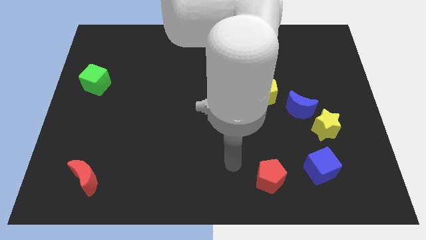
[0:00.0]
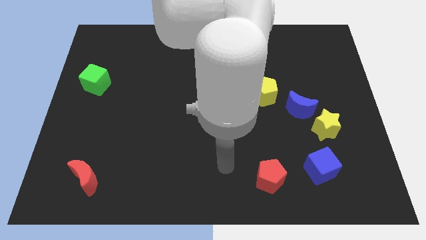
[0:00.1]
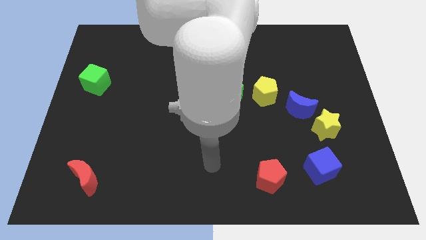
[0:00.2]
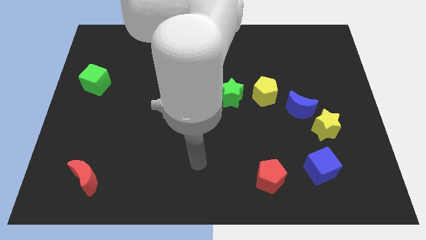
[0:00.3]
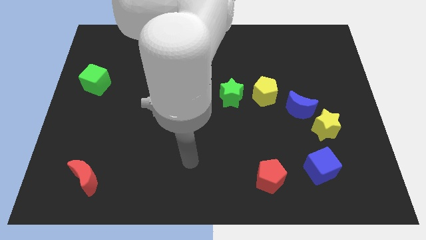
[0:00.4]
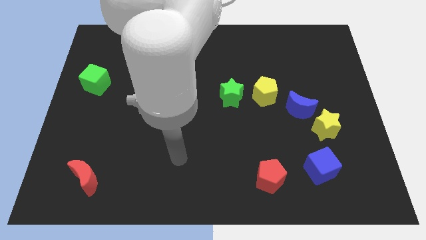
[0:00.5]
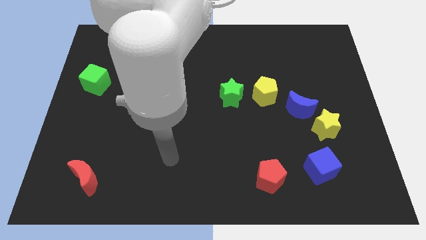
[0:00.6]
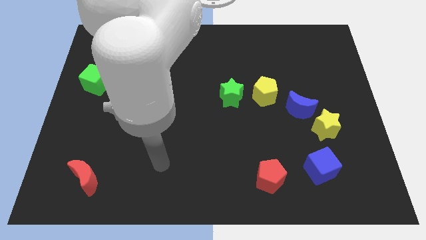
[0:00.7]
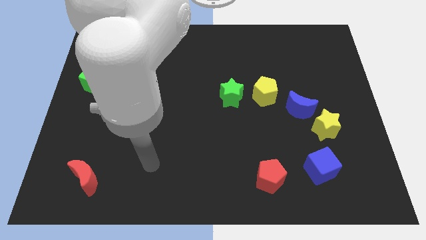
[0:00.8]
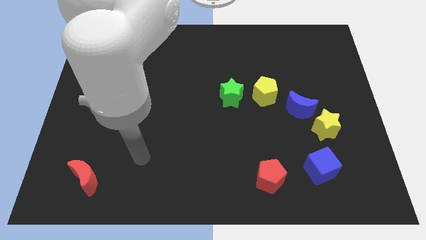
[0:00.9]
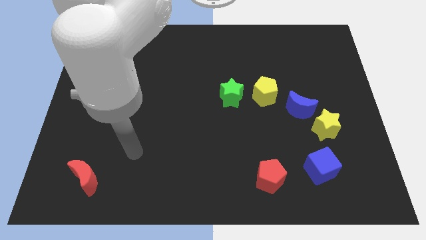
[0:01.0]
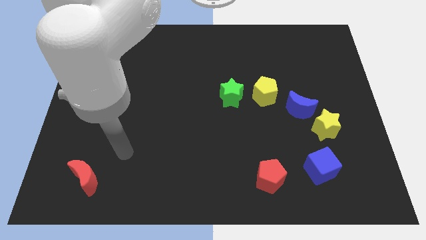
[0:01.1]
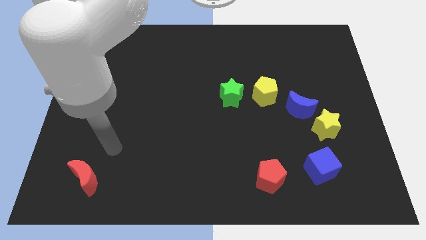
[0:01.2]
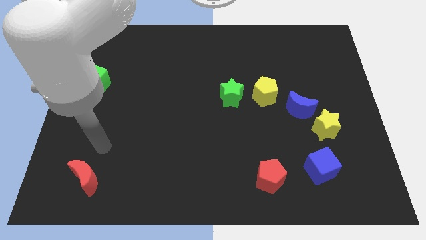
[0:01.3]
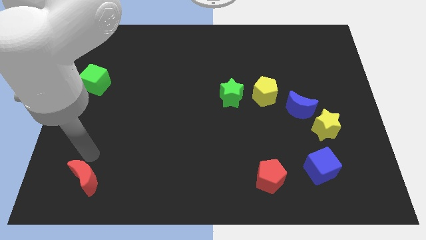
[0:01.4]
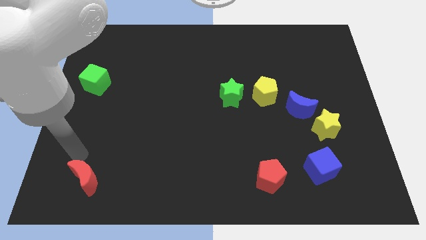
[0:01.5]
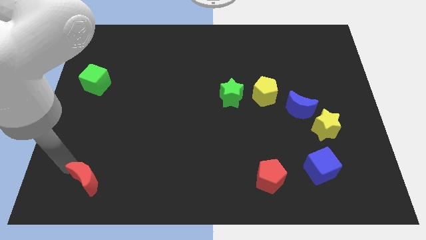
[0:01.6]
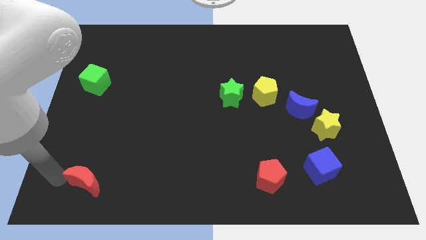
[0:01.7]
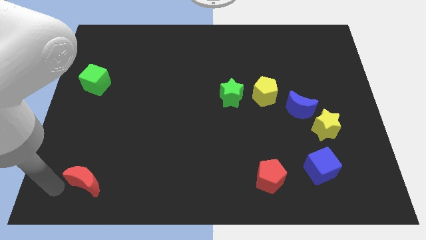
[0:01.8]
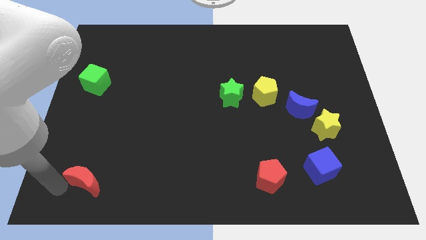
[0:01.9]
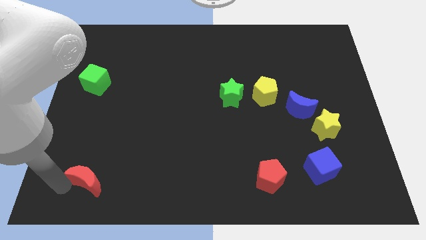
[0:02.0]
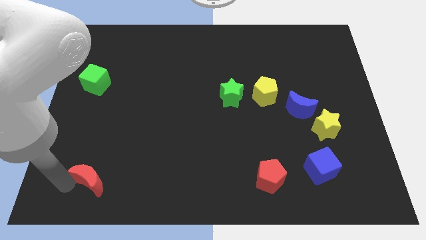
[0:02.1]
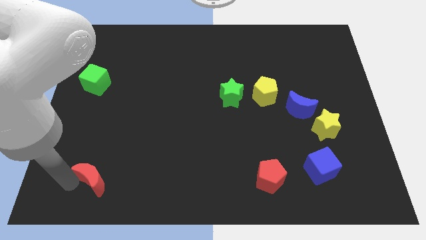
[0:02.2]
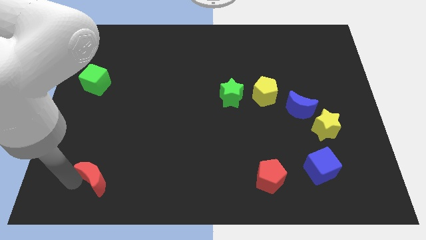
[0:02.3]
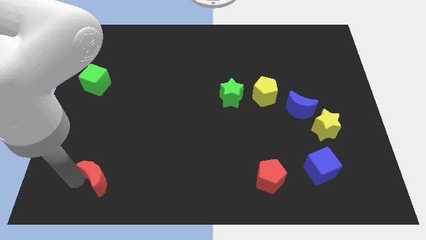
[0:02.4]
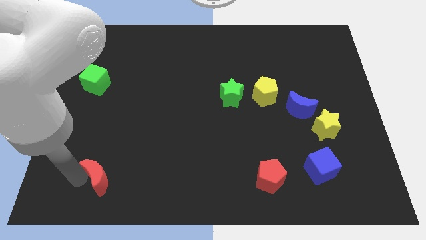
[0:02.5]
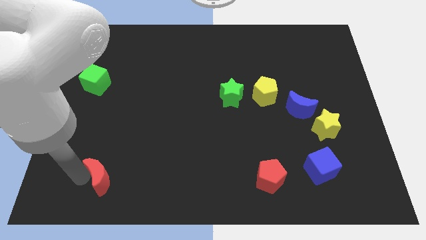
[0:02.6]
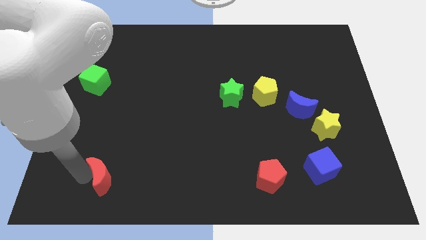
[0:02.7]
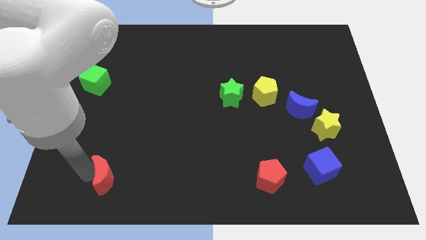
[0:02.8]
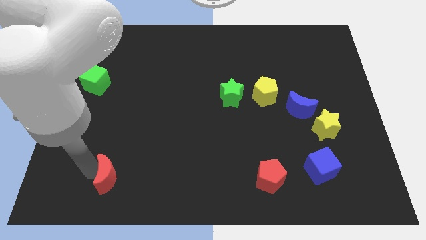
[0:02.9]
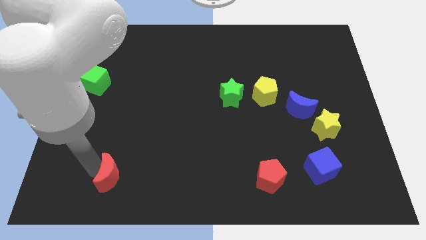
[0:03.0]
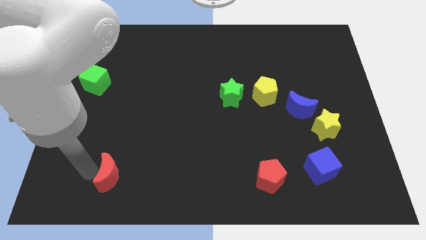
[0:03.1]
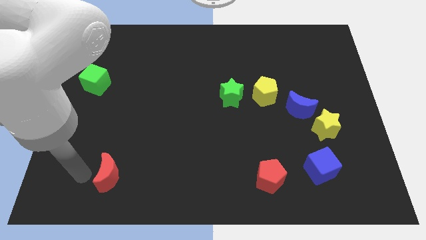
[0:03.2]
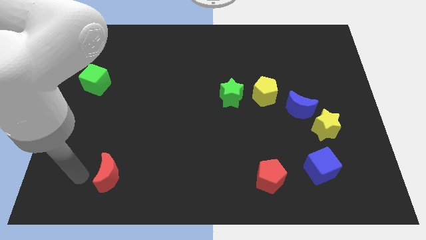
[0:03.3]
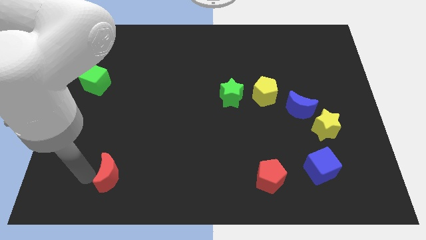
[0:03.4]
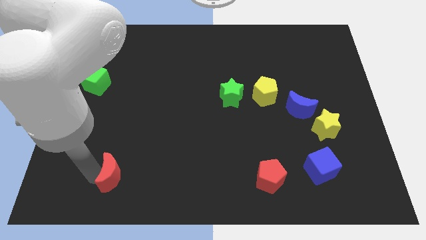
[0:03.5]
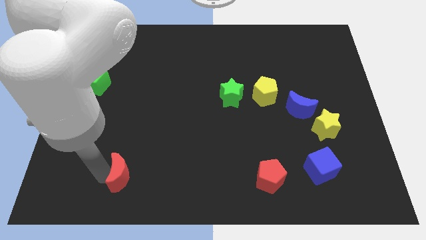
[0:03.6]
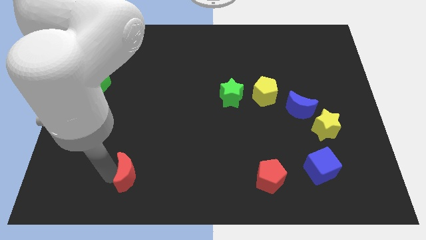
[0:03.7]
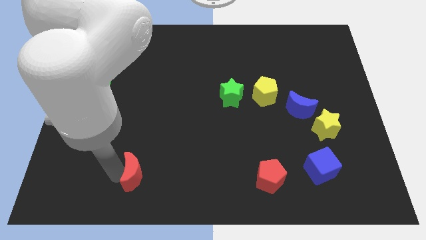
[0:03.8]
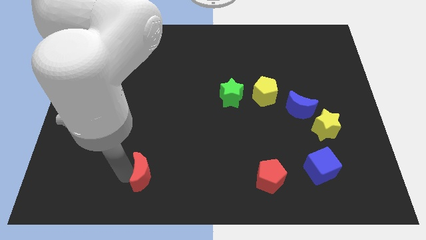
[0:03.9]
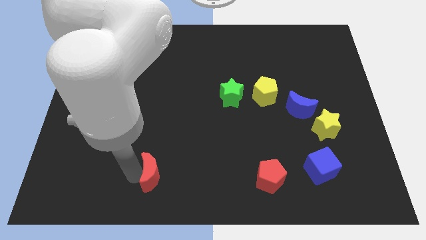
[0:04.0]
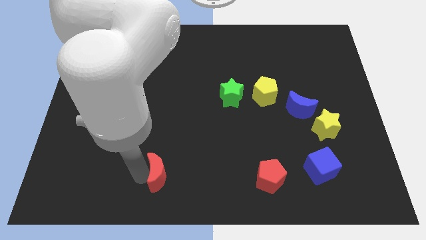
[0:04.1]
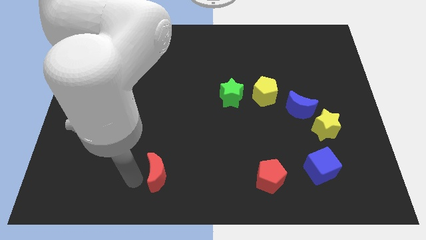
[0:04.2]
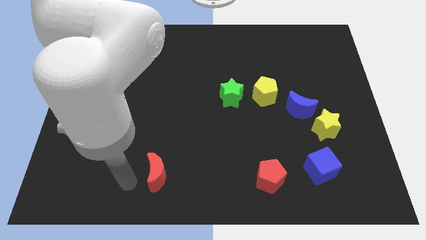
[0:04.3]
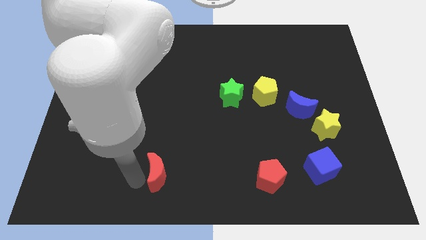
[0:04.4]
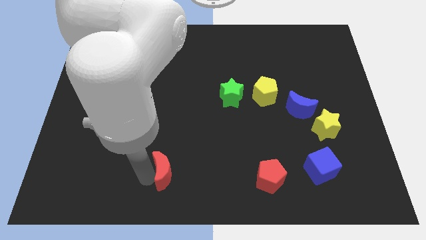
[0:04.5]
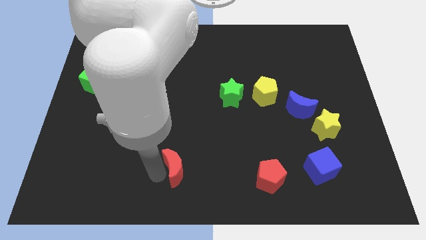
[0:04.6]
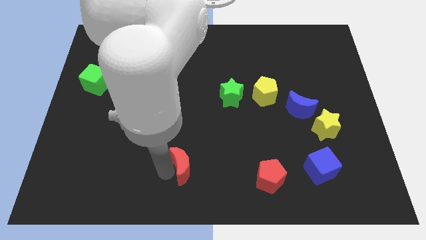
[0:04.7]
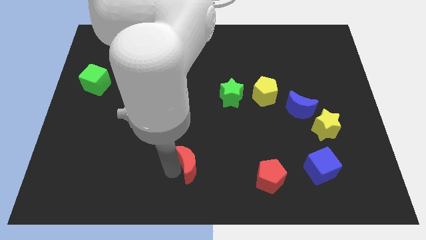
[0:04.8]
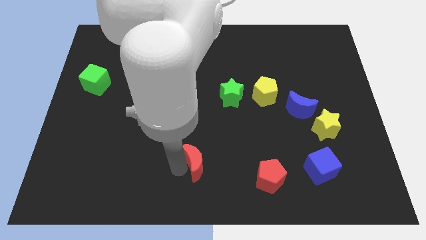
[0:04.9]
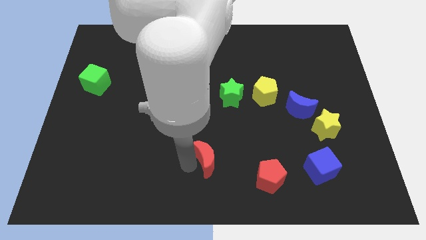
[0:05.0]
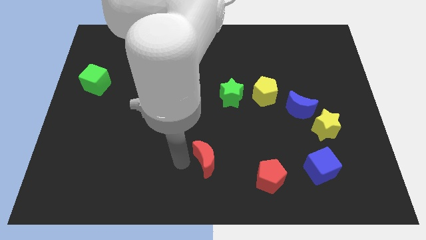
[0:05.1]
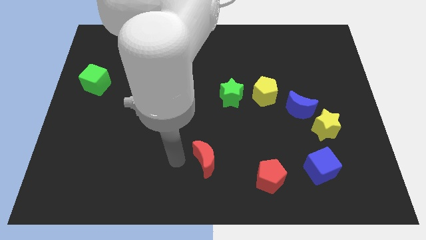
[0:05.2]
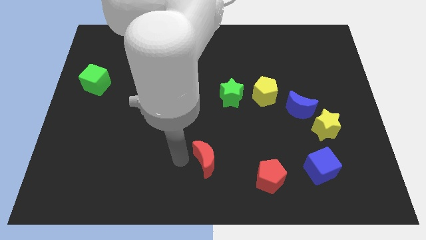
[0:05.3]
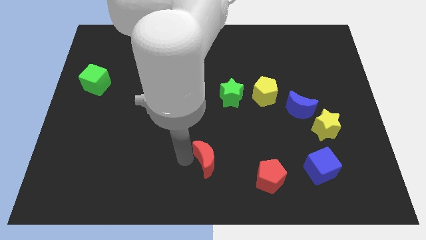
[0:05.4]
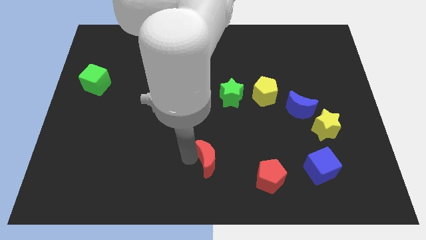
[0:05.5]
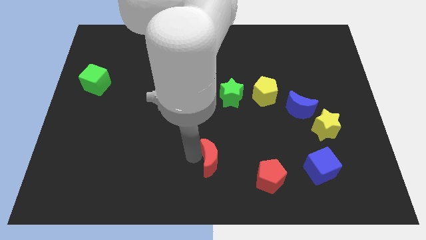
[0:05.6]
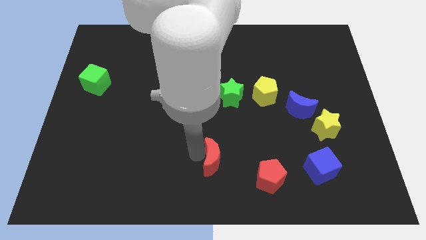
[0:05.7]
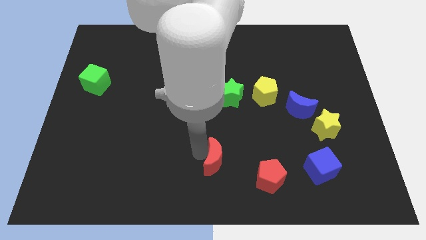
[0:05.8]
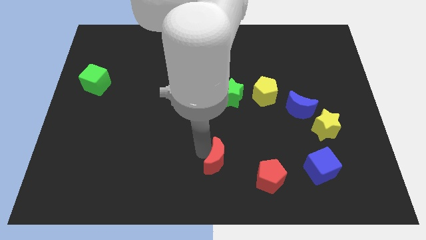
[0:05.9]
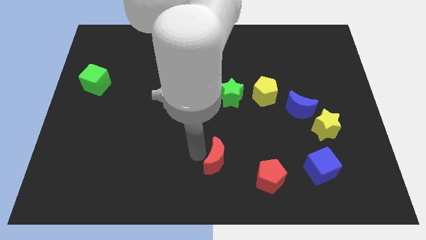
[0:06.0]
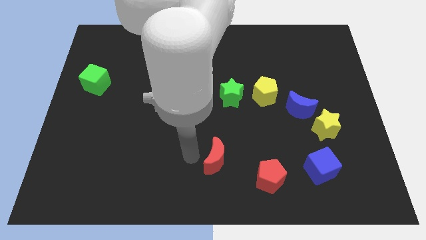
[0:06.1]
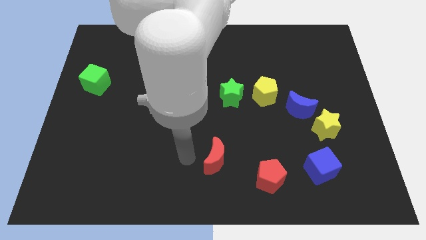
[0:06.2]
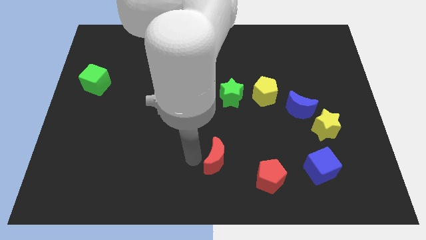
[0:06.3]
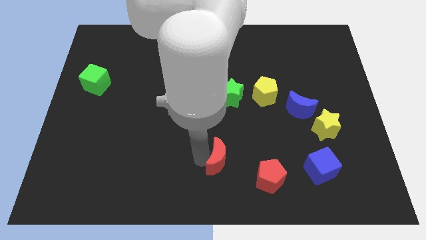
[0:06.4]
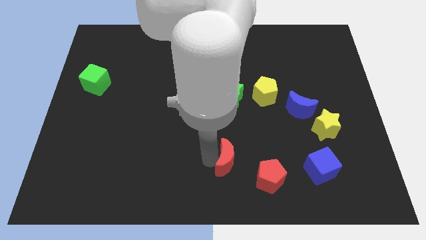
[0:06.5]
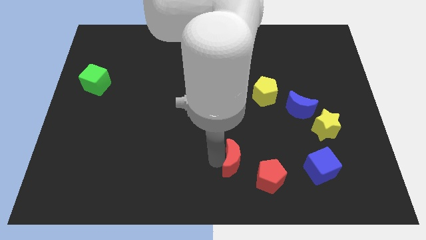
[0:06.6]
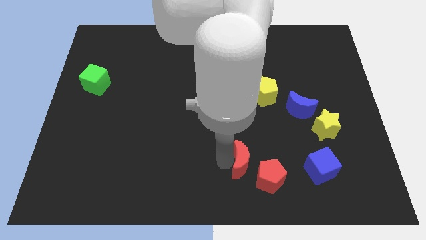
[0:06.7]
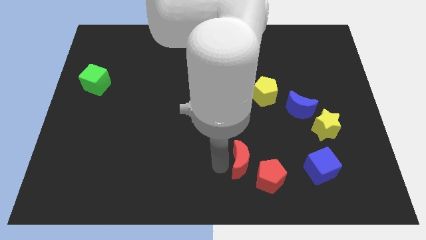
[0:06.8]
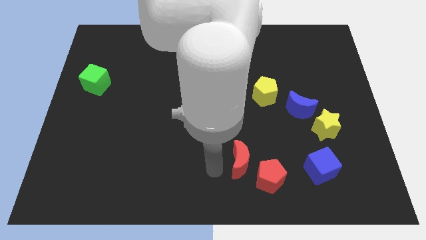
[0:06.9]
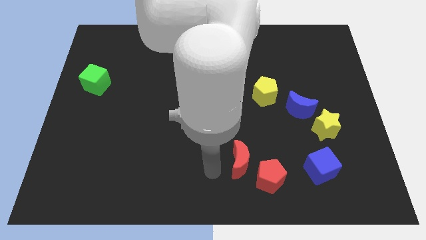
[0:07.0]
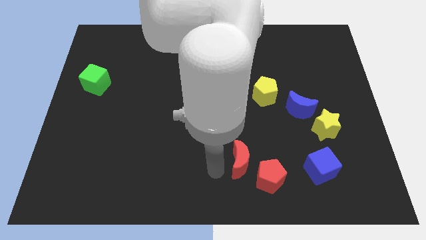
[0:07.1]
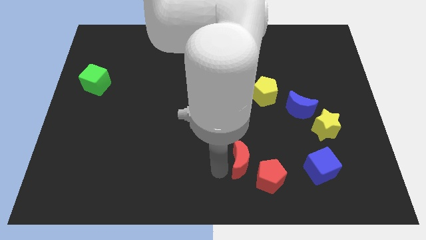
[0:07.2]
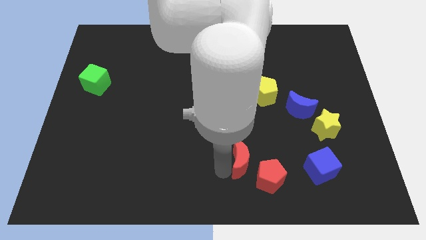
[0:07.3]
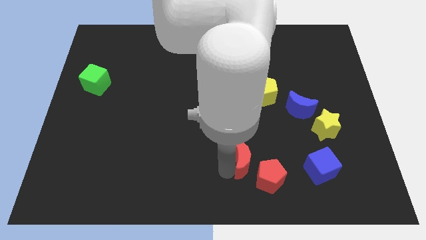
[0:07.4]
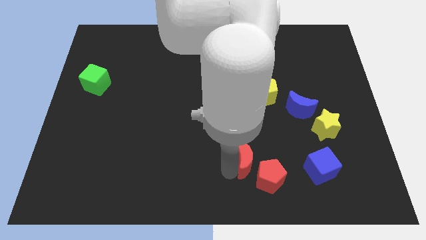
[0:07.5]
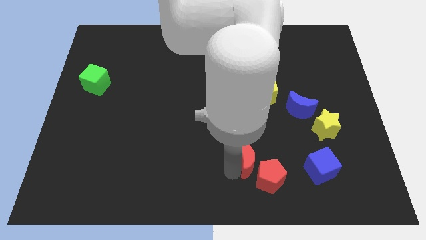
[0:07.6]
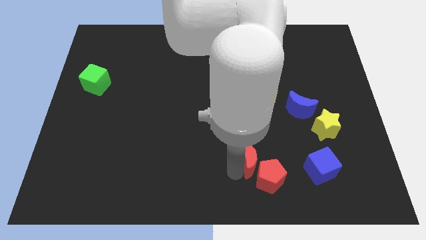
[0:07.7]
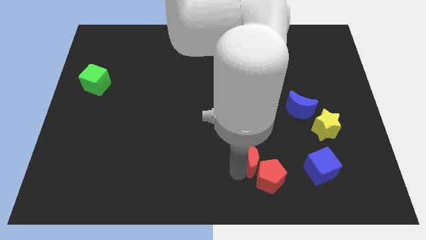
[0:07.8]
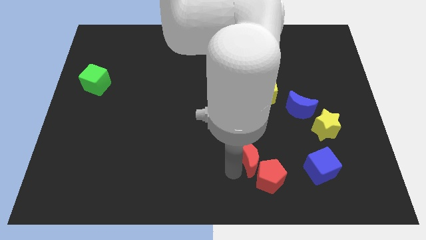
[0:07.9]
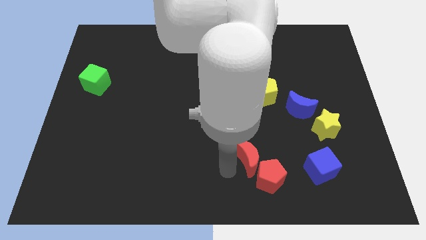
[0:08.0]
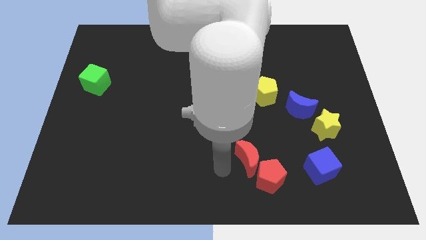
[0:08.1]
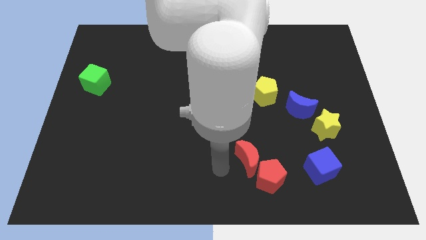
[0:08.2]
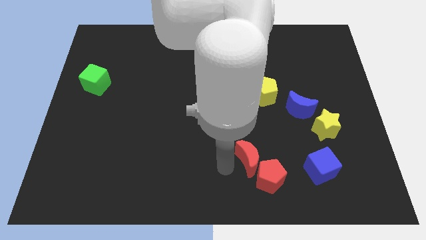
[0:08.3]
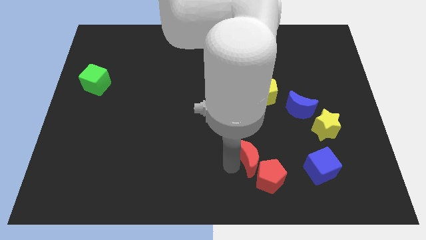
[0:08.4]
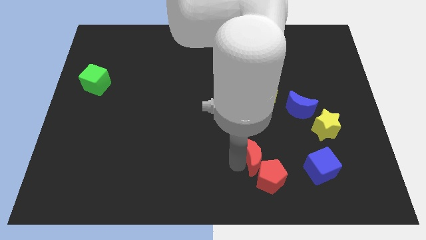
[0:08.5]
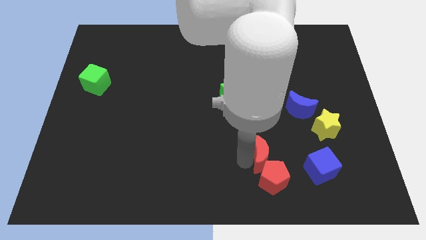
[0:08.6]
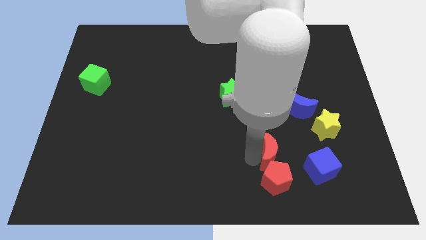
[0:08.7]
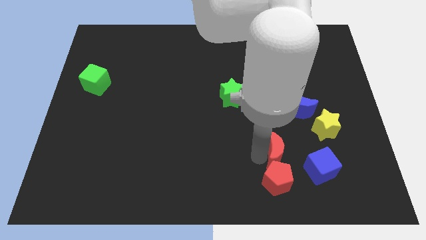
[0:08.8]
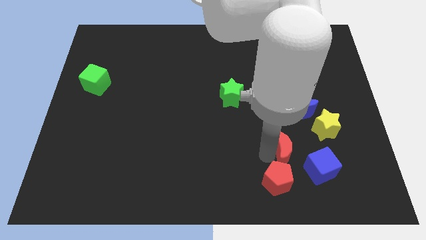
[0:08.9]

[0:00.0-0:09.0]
put the red moon diagonally down and to the left of the yellow star
